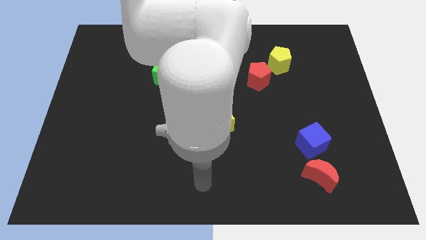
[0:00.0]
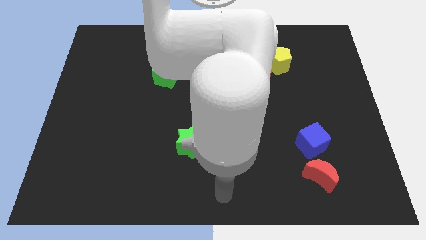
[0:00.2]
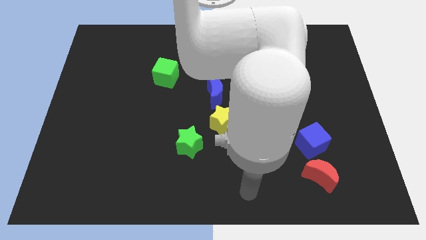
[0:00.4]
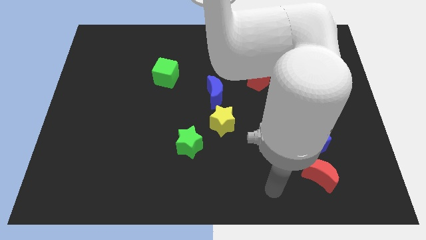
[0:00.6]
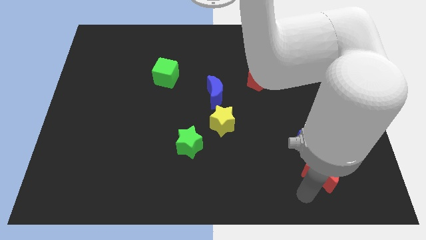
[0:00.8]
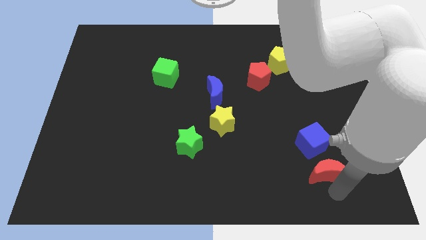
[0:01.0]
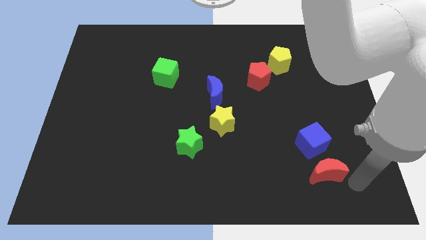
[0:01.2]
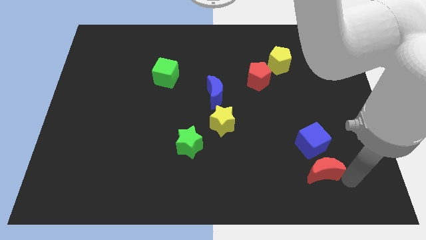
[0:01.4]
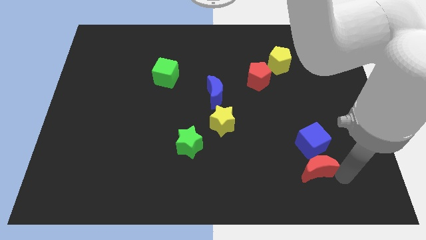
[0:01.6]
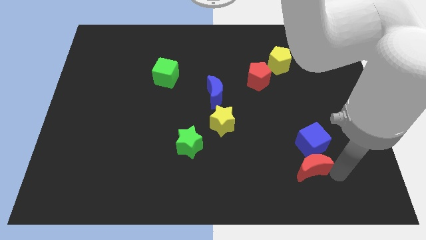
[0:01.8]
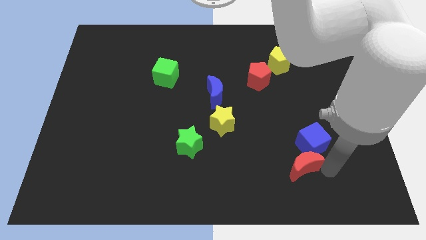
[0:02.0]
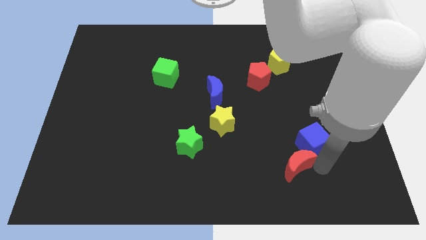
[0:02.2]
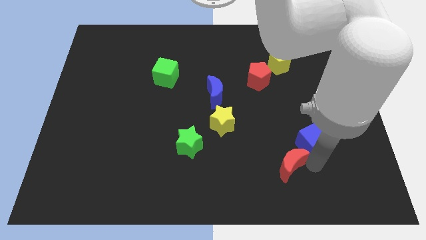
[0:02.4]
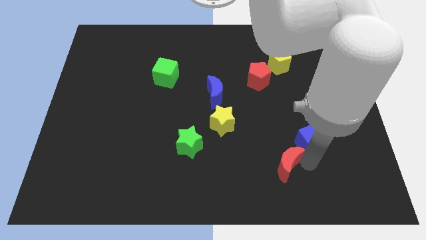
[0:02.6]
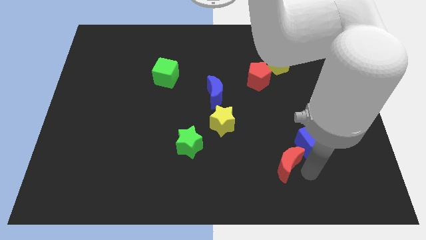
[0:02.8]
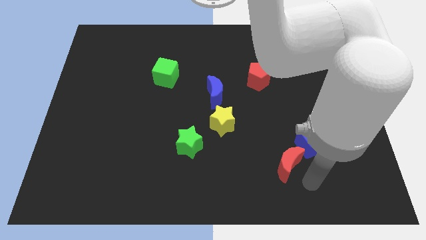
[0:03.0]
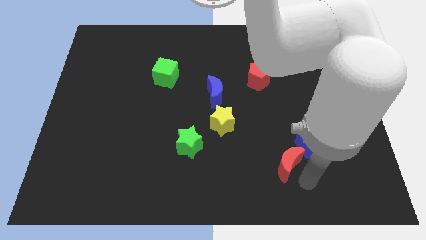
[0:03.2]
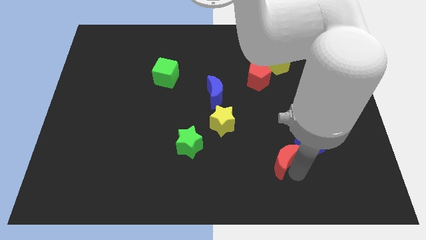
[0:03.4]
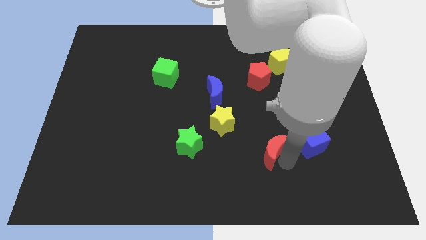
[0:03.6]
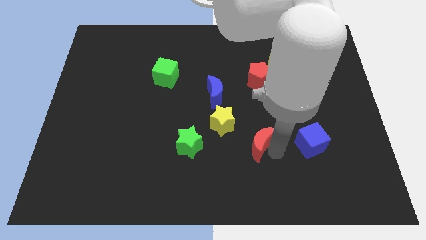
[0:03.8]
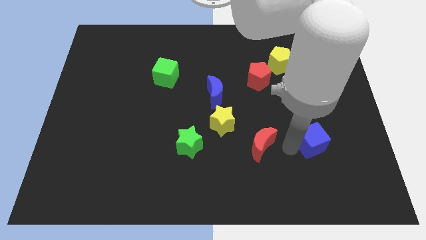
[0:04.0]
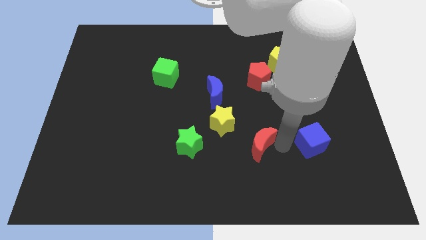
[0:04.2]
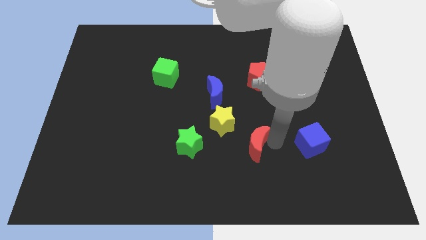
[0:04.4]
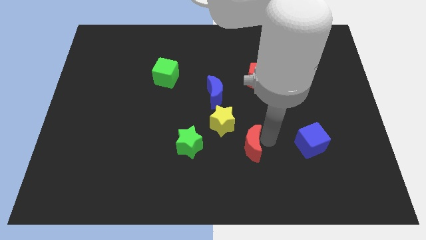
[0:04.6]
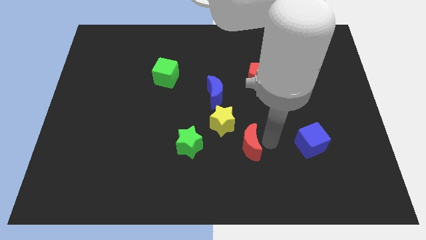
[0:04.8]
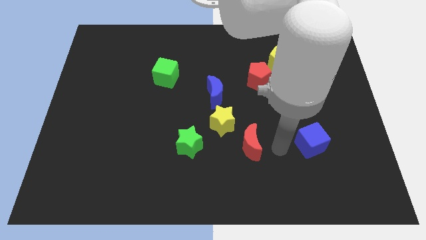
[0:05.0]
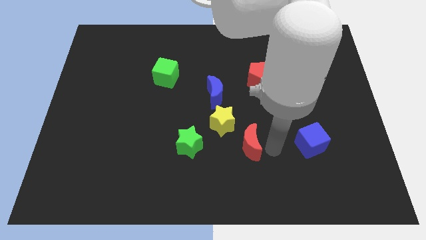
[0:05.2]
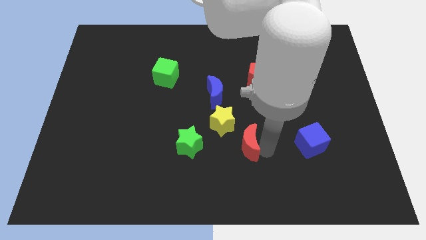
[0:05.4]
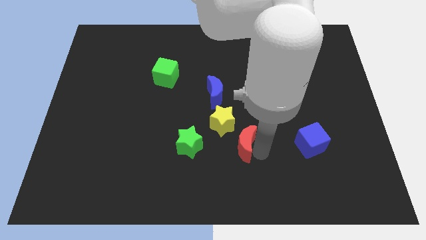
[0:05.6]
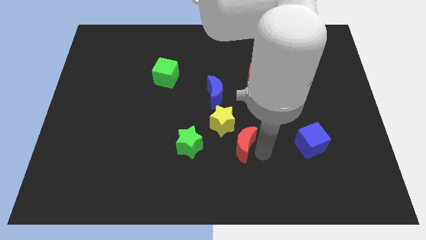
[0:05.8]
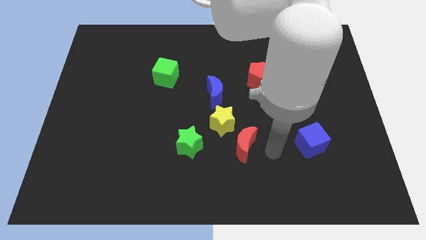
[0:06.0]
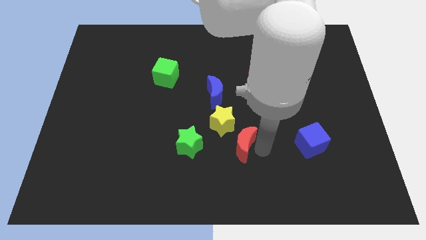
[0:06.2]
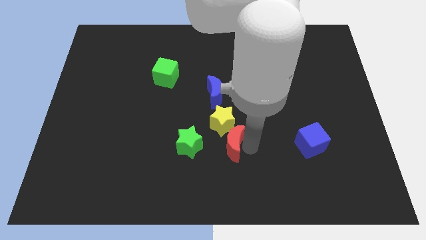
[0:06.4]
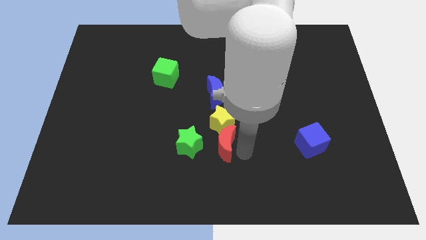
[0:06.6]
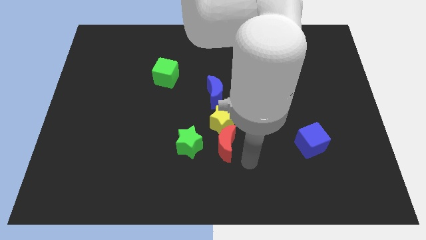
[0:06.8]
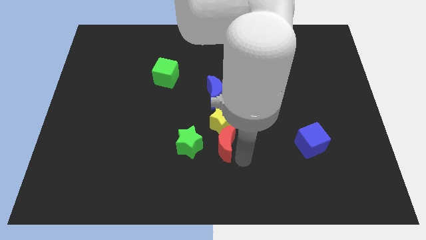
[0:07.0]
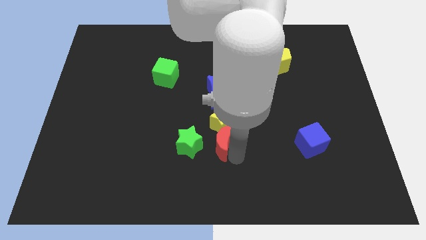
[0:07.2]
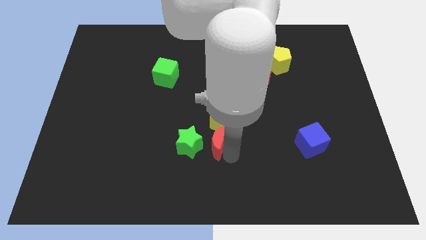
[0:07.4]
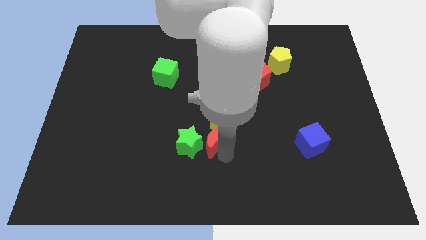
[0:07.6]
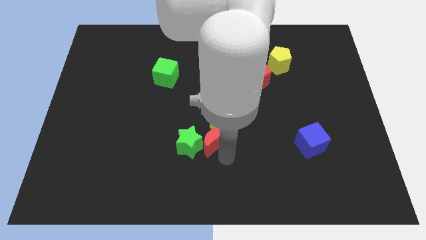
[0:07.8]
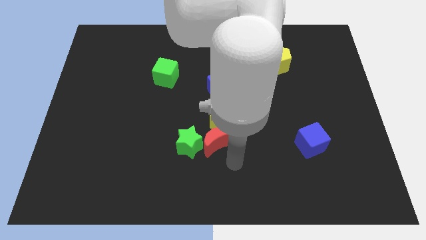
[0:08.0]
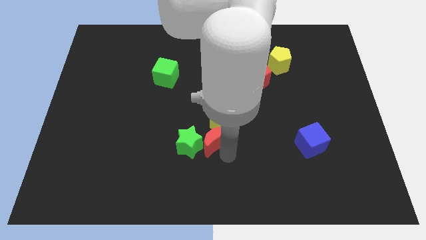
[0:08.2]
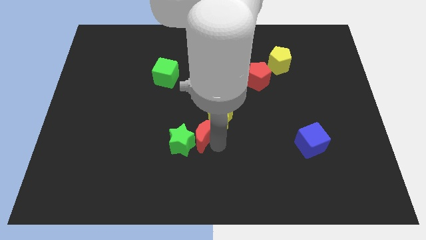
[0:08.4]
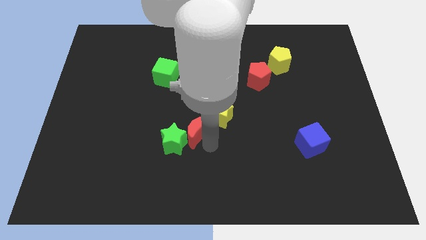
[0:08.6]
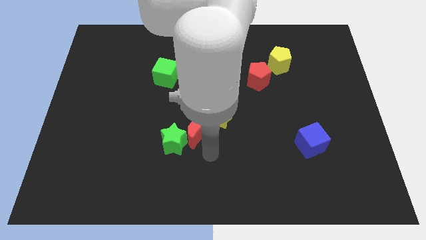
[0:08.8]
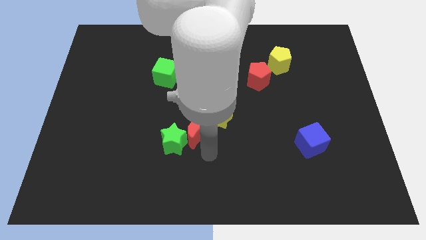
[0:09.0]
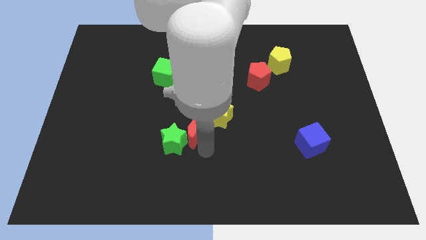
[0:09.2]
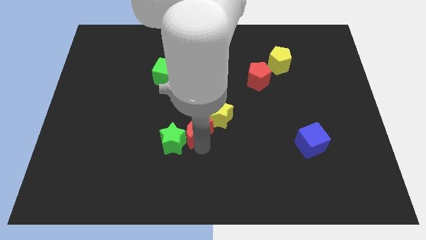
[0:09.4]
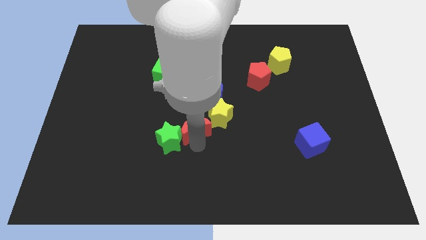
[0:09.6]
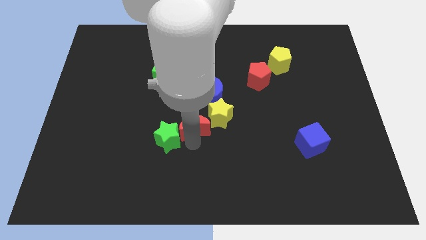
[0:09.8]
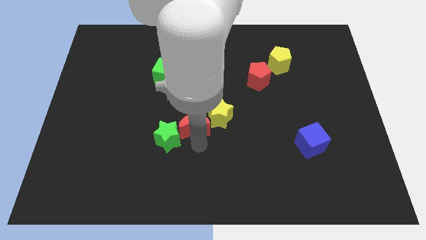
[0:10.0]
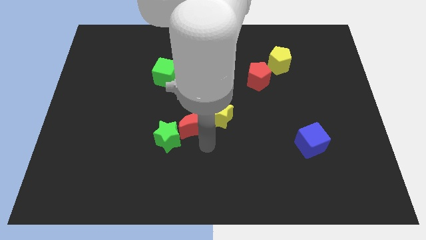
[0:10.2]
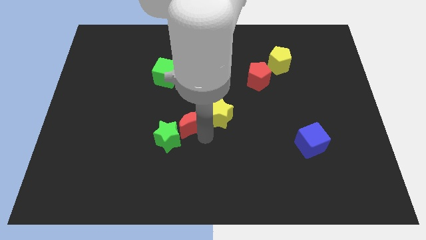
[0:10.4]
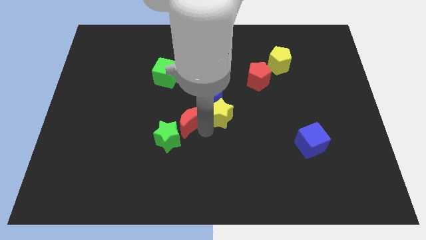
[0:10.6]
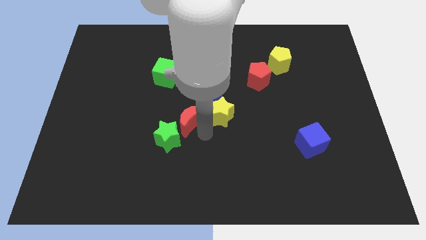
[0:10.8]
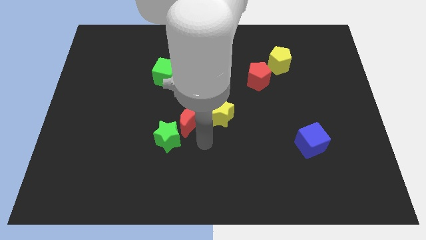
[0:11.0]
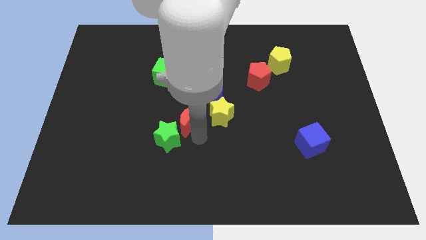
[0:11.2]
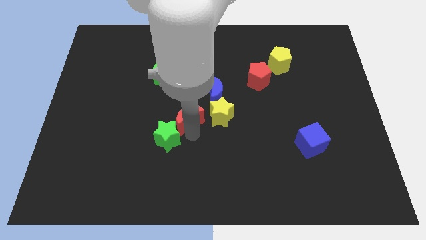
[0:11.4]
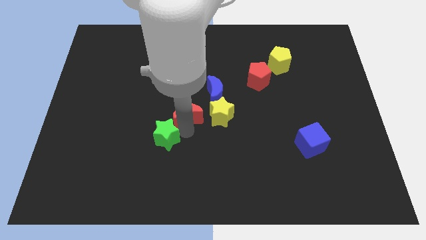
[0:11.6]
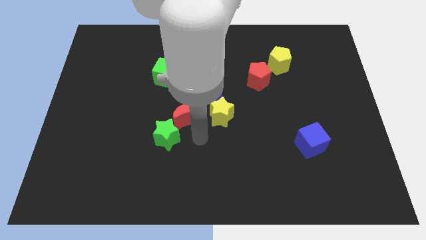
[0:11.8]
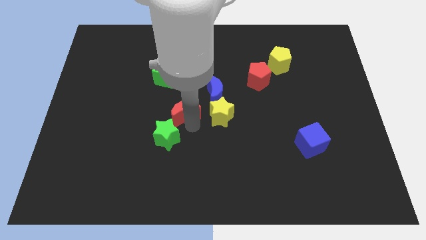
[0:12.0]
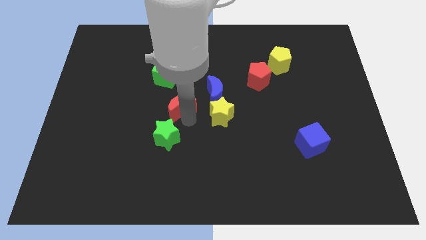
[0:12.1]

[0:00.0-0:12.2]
slide the red moon left of the blue moon

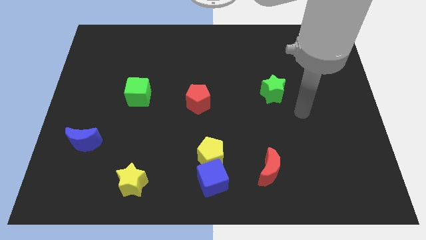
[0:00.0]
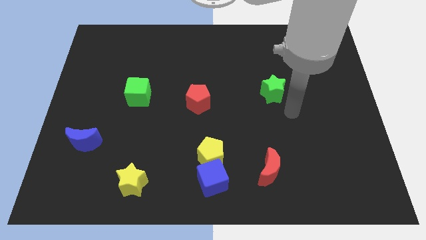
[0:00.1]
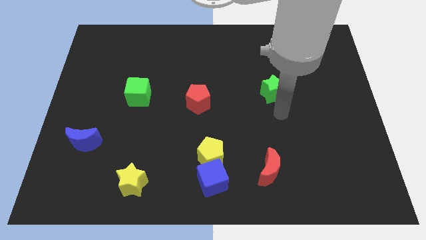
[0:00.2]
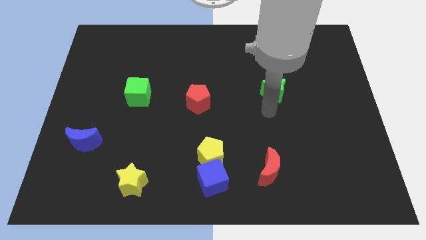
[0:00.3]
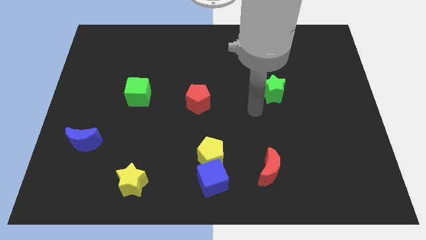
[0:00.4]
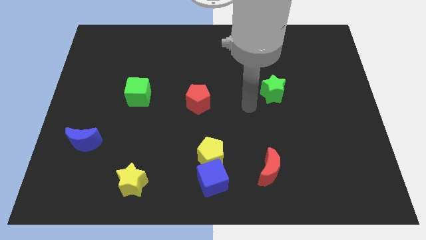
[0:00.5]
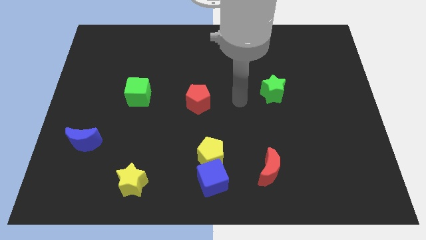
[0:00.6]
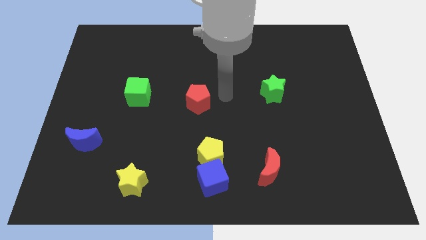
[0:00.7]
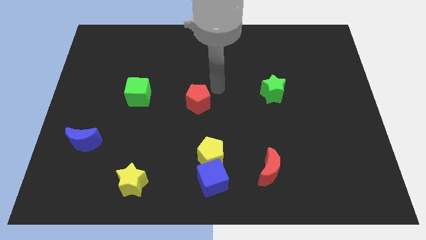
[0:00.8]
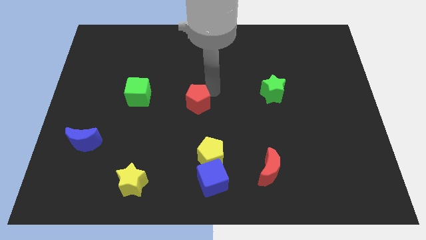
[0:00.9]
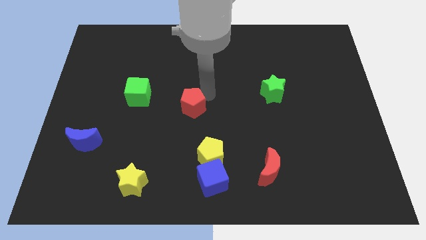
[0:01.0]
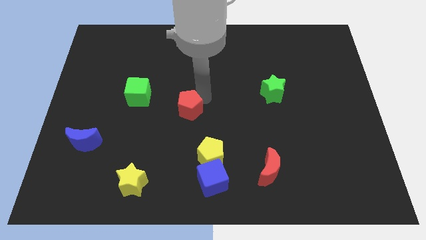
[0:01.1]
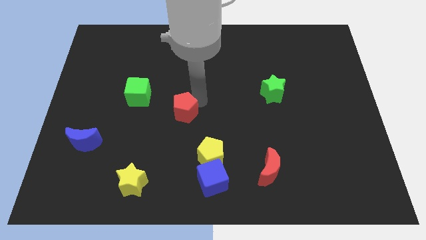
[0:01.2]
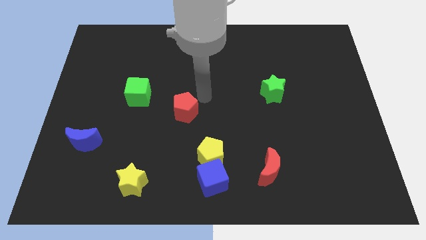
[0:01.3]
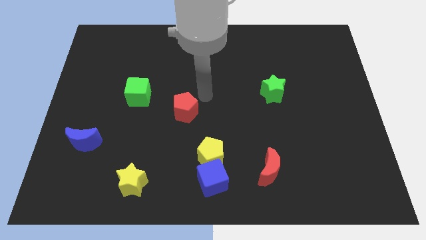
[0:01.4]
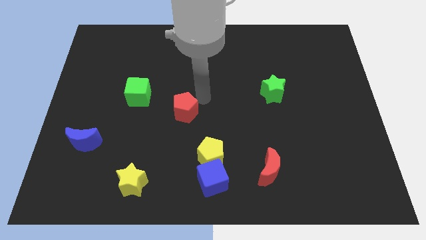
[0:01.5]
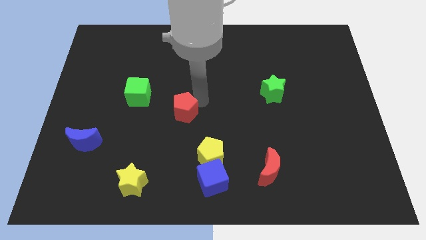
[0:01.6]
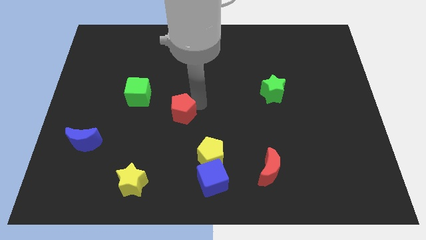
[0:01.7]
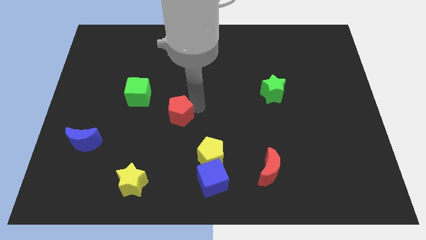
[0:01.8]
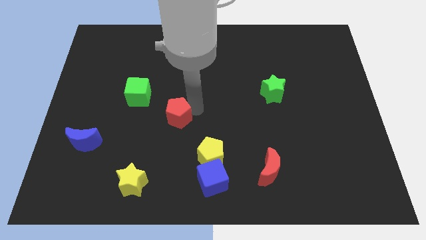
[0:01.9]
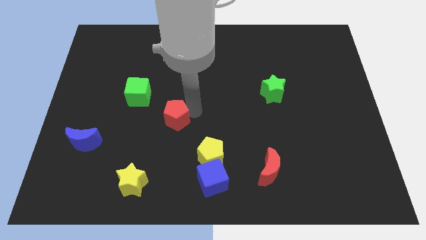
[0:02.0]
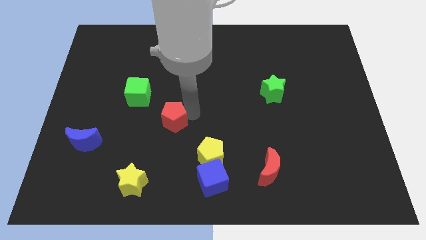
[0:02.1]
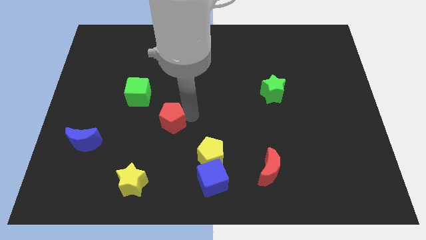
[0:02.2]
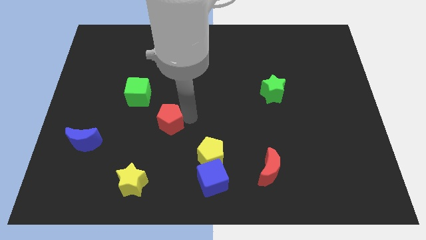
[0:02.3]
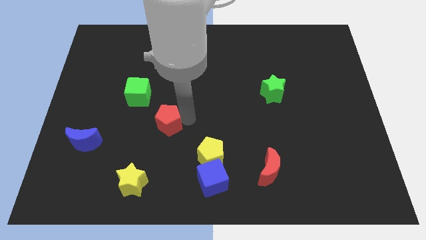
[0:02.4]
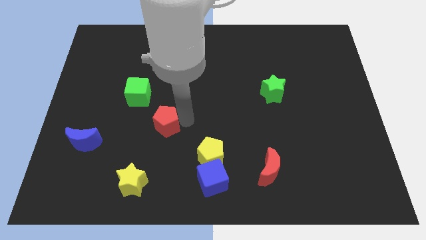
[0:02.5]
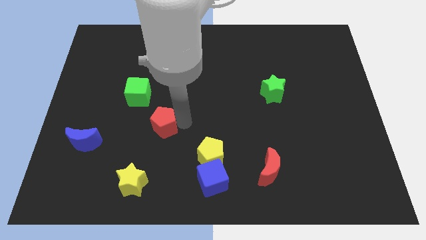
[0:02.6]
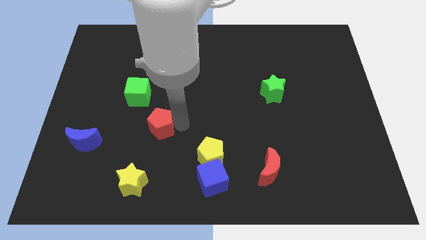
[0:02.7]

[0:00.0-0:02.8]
slide the red pentagon to the top side of the yellow star
